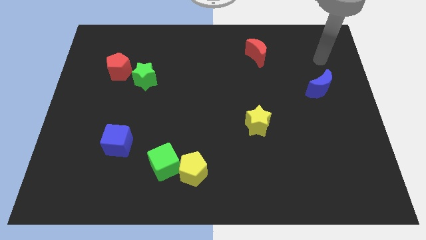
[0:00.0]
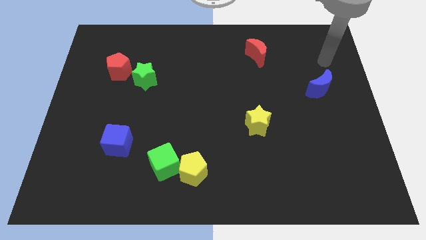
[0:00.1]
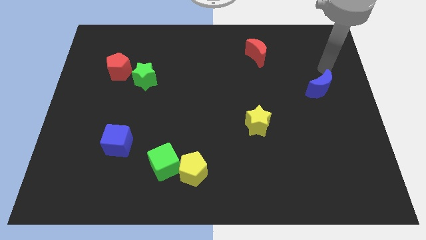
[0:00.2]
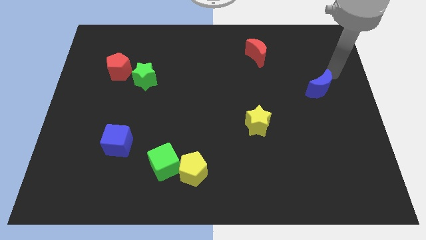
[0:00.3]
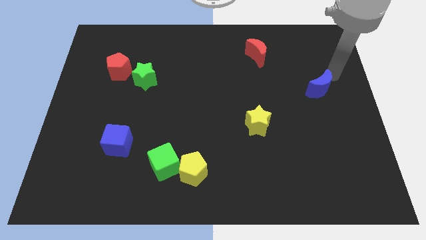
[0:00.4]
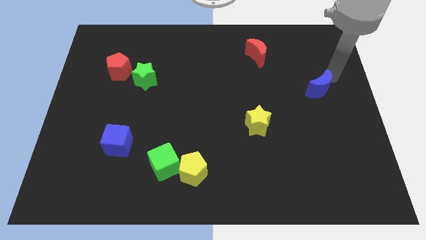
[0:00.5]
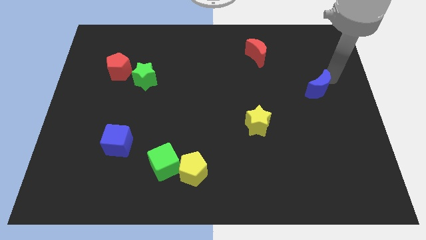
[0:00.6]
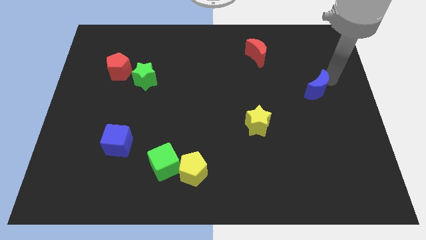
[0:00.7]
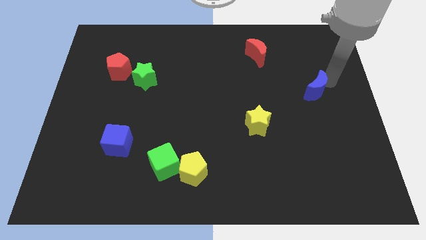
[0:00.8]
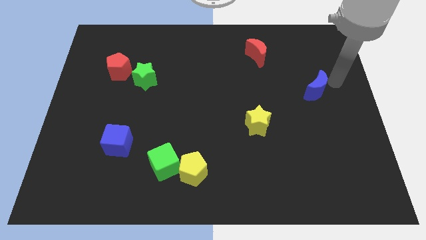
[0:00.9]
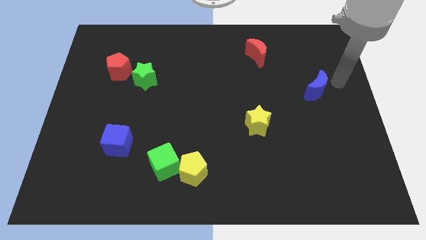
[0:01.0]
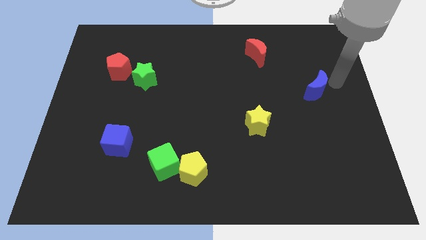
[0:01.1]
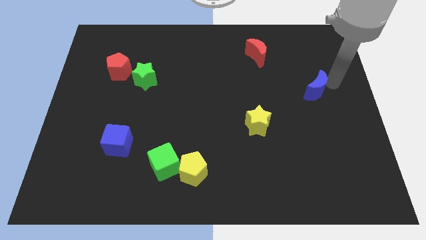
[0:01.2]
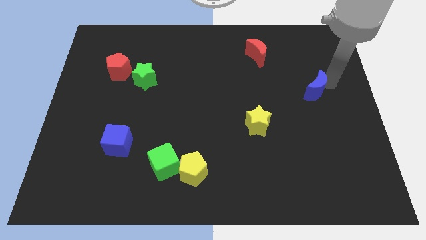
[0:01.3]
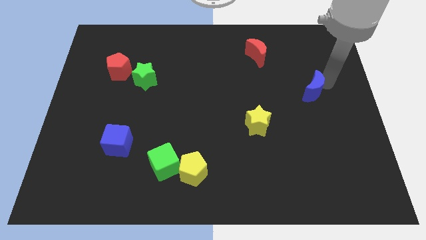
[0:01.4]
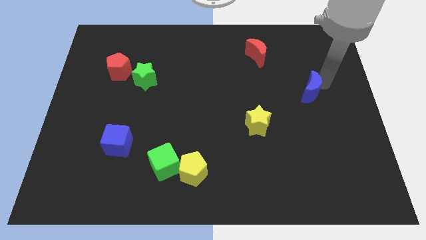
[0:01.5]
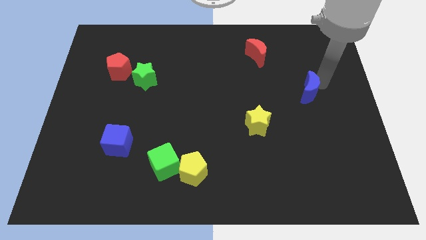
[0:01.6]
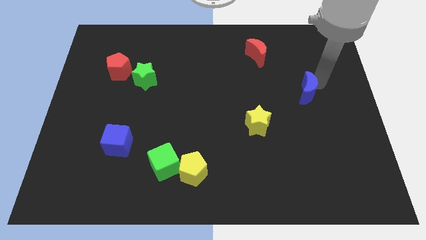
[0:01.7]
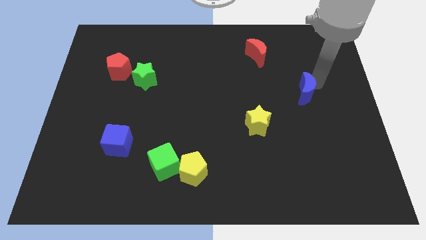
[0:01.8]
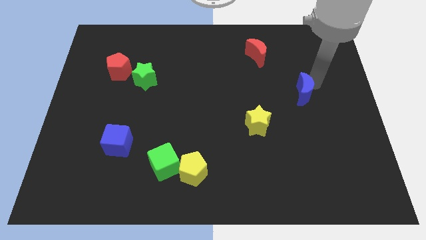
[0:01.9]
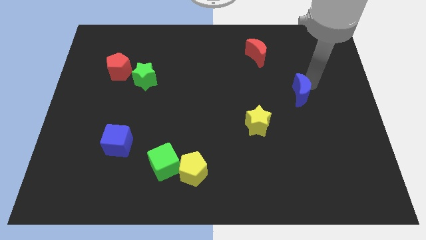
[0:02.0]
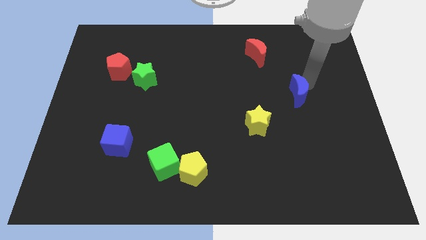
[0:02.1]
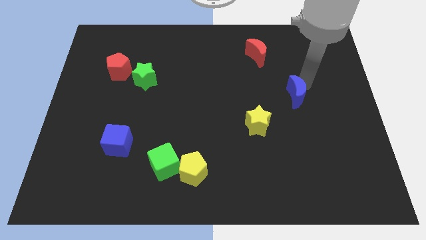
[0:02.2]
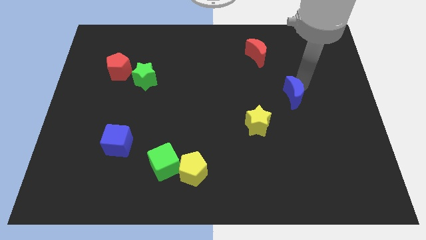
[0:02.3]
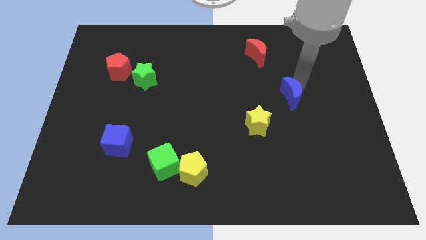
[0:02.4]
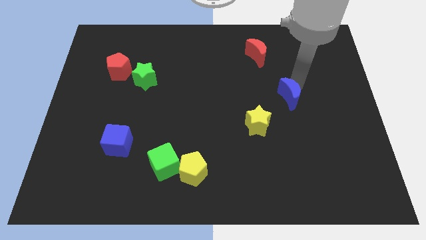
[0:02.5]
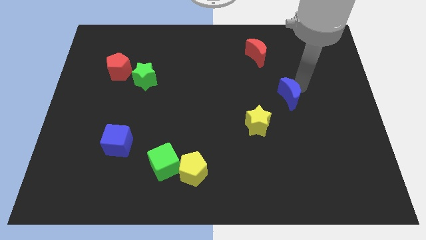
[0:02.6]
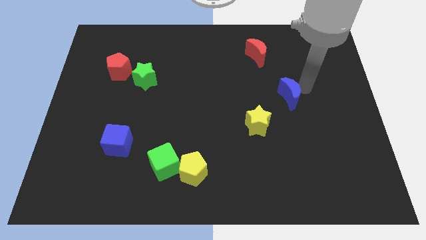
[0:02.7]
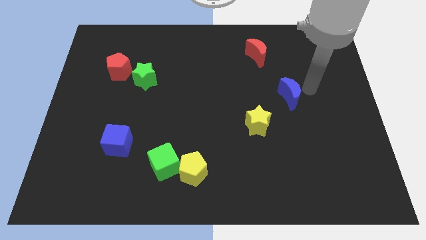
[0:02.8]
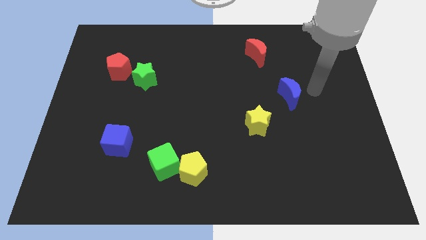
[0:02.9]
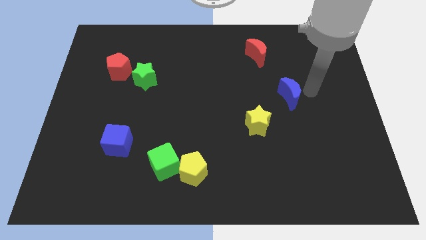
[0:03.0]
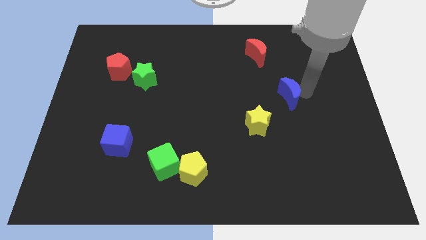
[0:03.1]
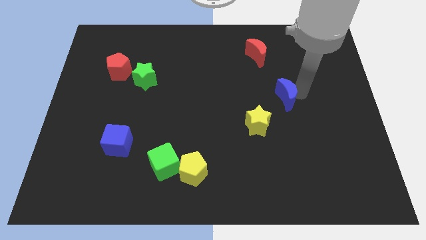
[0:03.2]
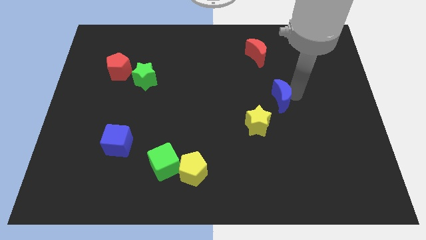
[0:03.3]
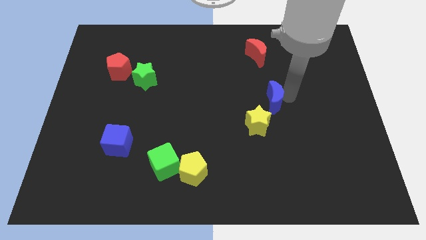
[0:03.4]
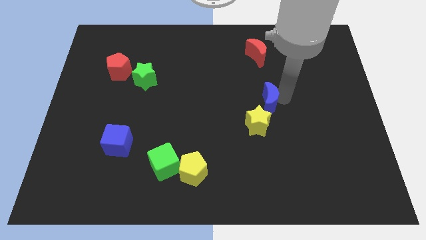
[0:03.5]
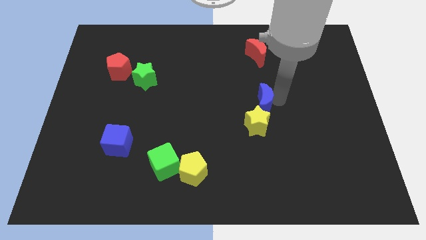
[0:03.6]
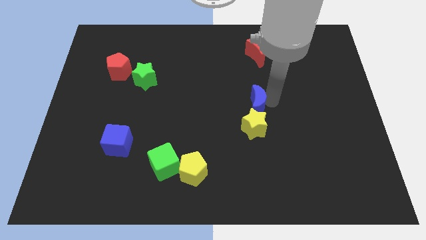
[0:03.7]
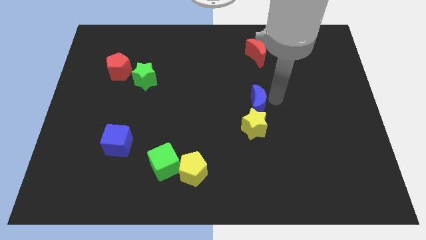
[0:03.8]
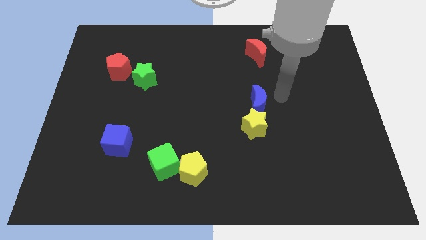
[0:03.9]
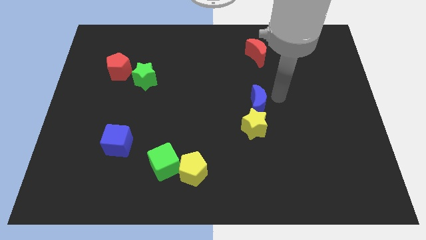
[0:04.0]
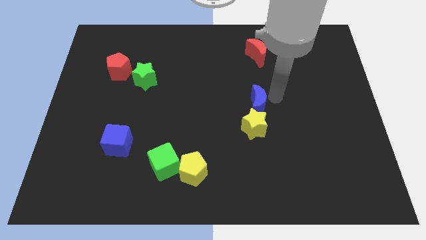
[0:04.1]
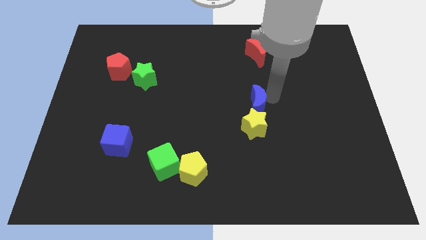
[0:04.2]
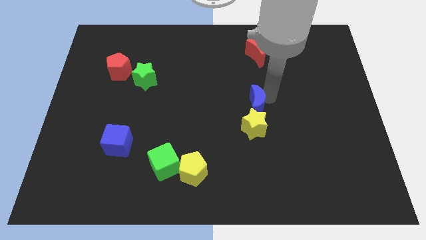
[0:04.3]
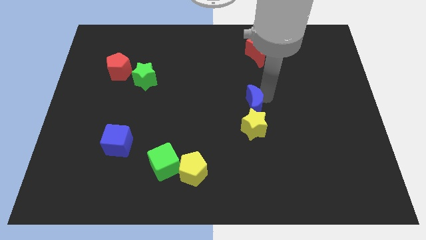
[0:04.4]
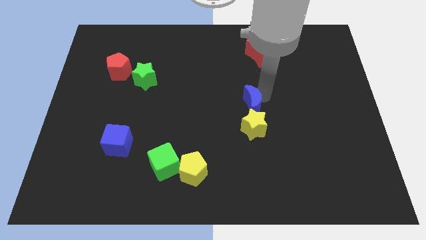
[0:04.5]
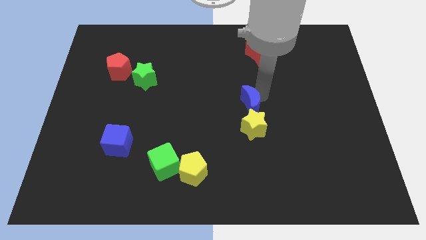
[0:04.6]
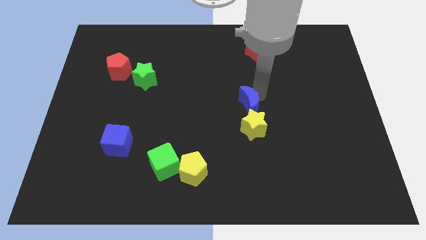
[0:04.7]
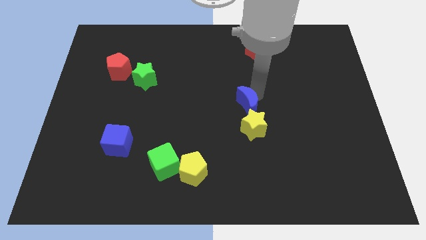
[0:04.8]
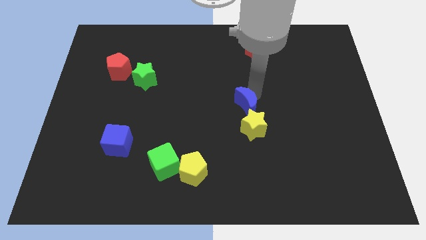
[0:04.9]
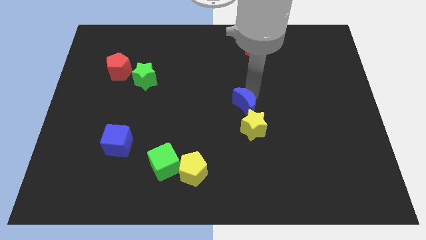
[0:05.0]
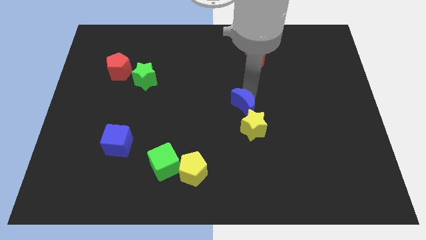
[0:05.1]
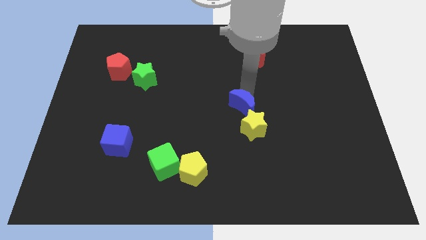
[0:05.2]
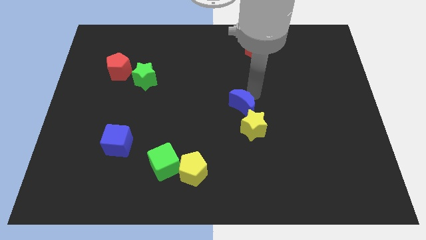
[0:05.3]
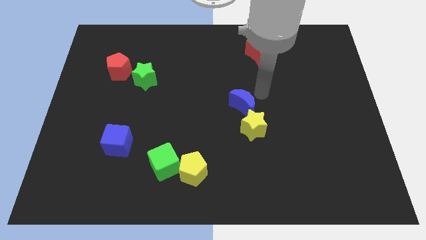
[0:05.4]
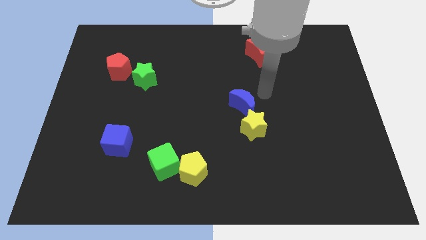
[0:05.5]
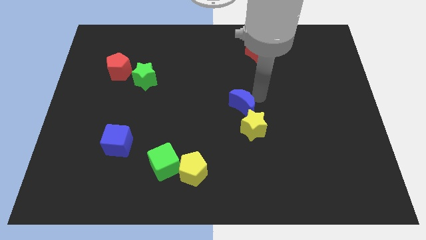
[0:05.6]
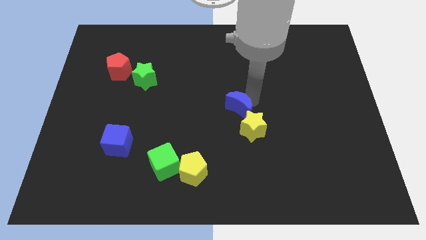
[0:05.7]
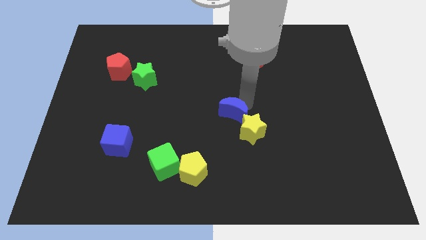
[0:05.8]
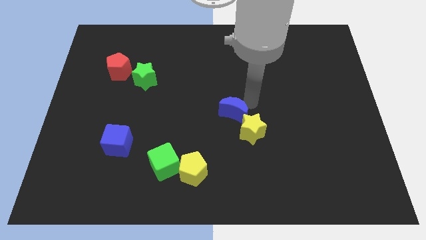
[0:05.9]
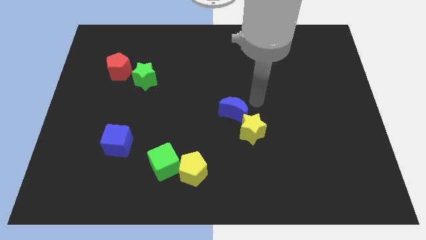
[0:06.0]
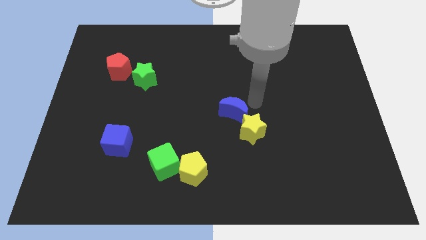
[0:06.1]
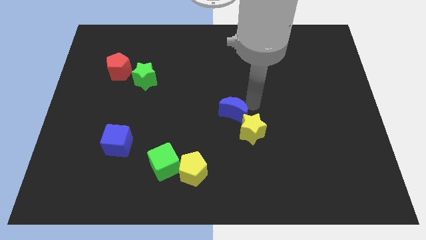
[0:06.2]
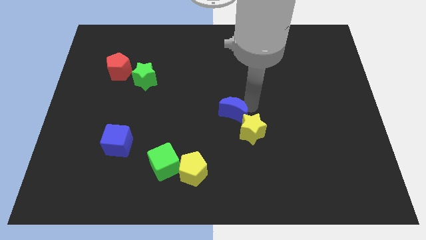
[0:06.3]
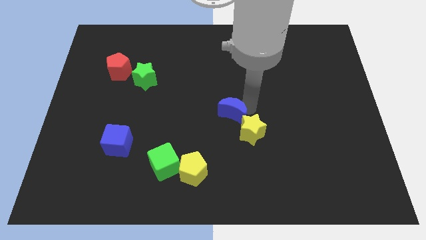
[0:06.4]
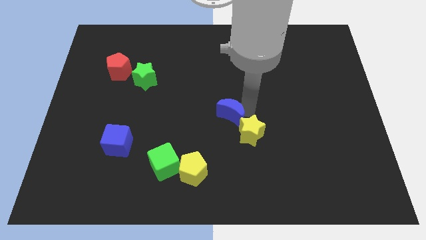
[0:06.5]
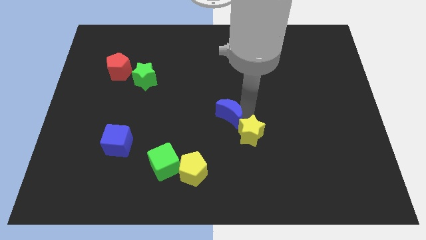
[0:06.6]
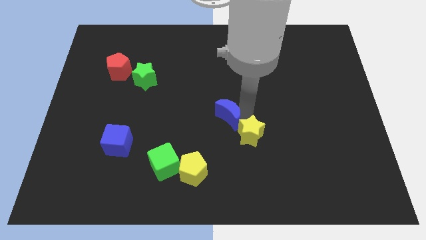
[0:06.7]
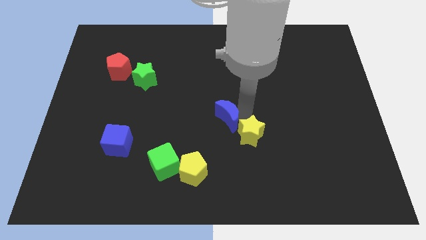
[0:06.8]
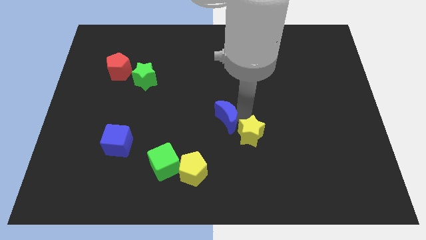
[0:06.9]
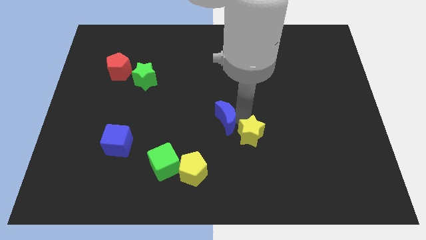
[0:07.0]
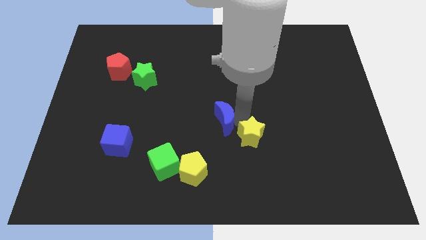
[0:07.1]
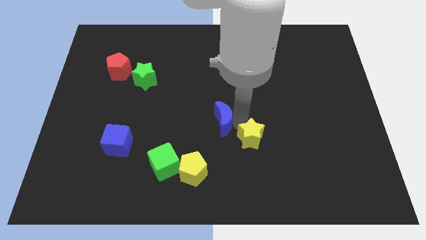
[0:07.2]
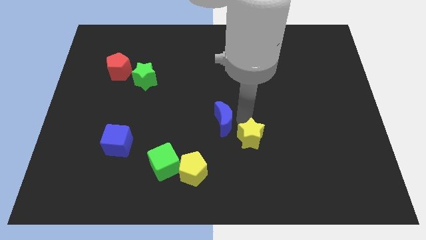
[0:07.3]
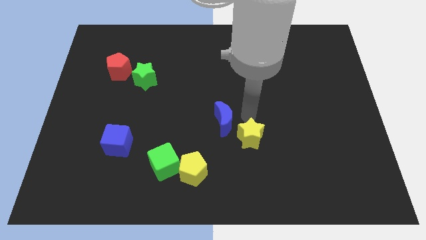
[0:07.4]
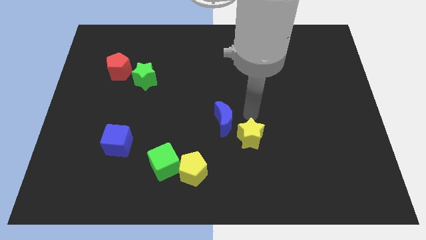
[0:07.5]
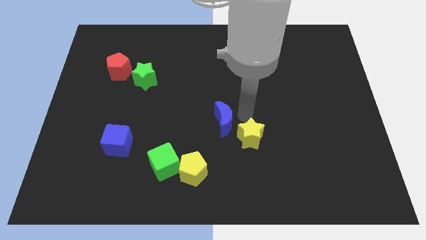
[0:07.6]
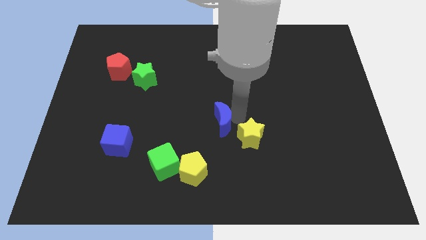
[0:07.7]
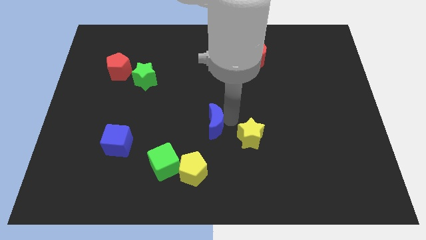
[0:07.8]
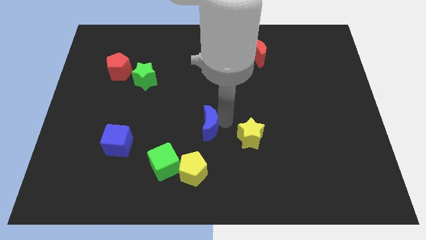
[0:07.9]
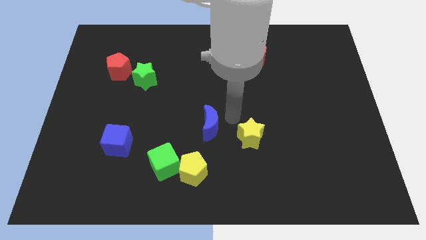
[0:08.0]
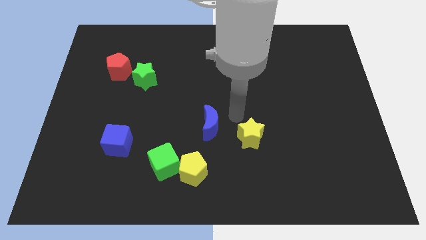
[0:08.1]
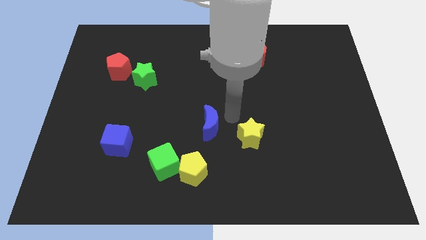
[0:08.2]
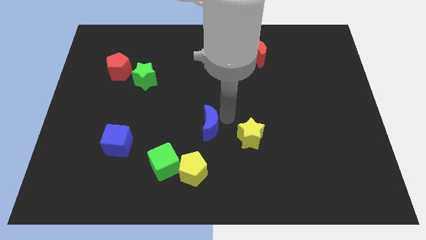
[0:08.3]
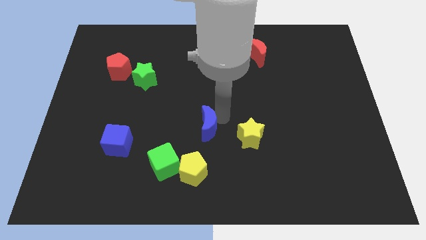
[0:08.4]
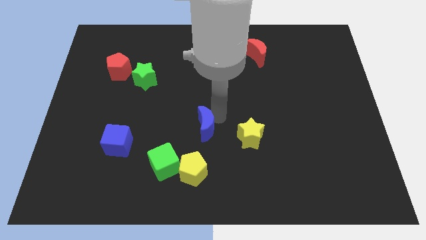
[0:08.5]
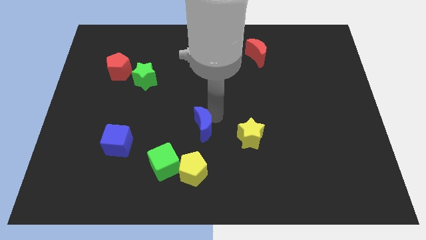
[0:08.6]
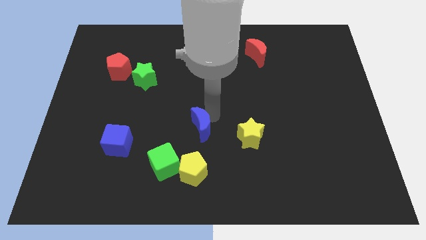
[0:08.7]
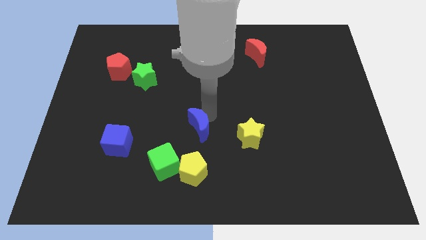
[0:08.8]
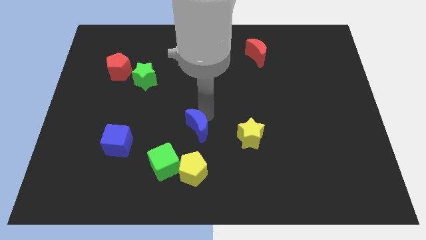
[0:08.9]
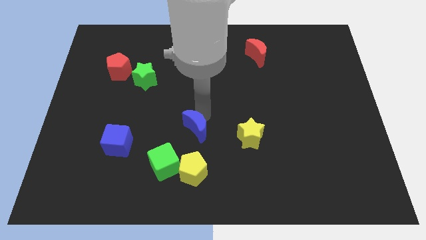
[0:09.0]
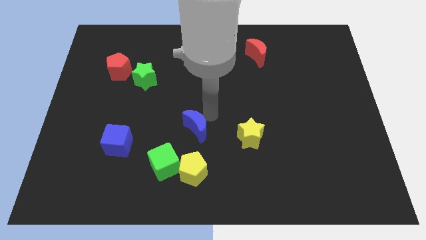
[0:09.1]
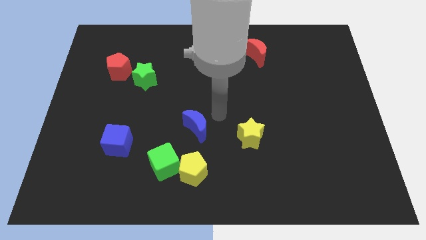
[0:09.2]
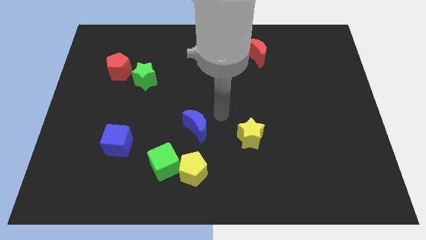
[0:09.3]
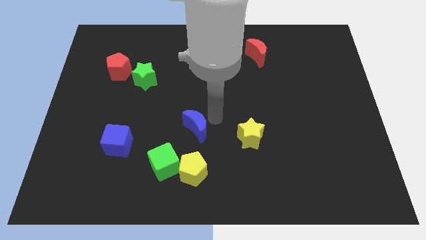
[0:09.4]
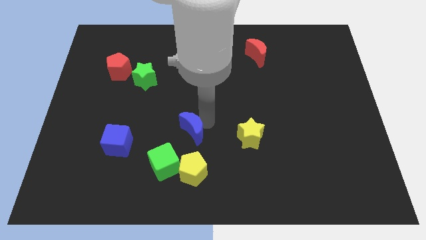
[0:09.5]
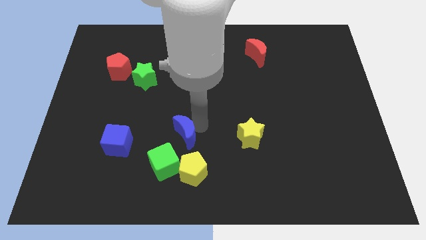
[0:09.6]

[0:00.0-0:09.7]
move the blue moon just right of the blue cube
